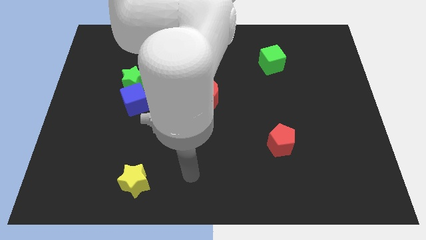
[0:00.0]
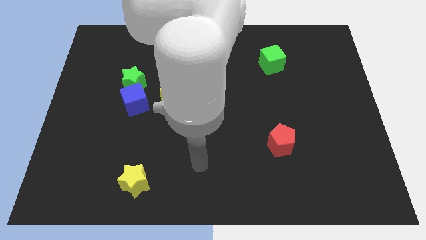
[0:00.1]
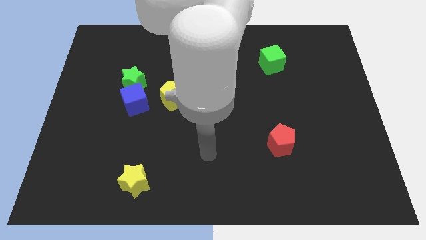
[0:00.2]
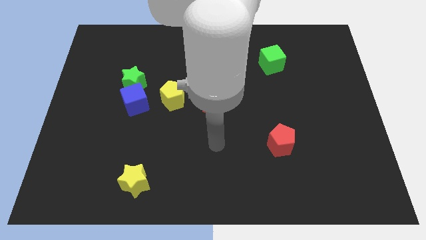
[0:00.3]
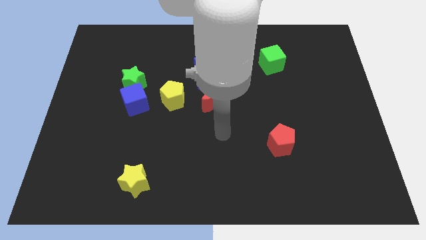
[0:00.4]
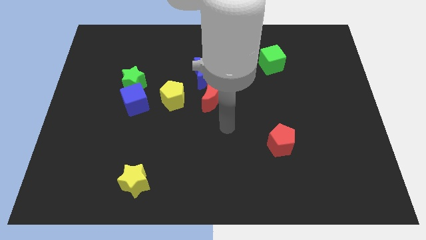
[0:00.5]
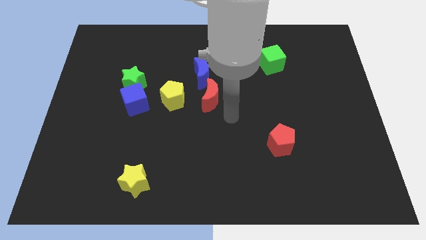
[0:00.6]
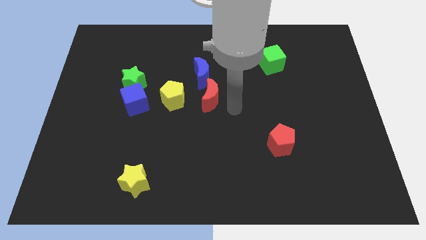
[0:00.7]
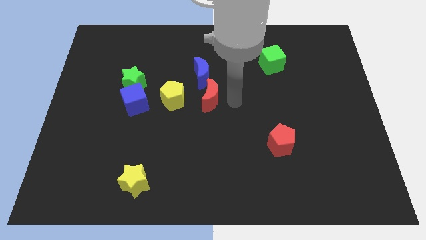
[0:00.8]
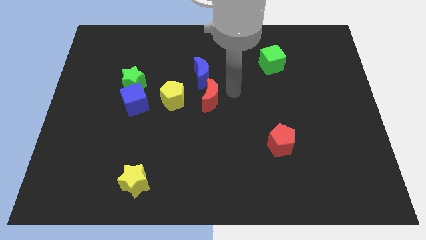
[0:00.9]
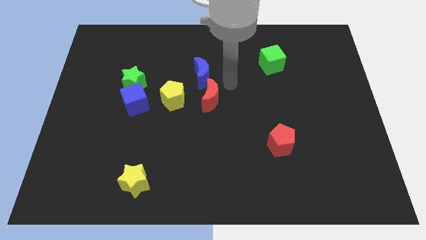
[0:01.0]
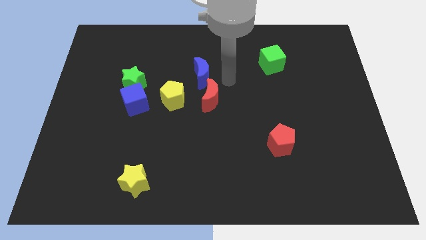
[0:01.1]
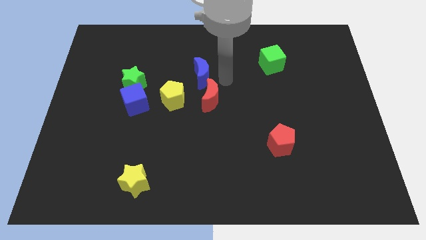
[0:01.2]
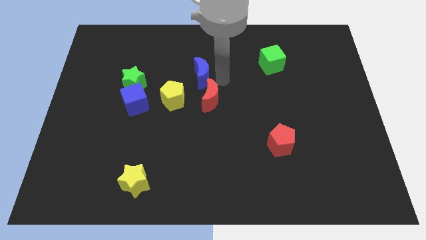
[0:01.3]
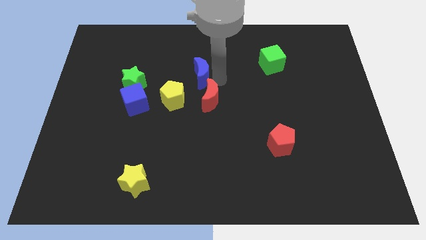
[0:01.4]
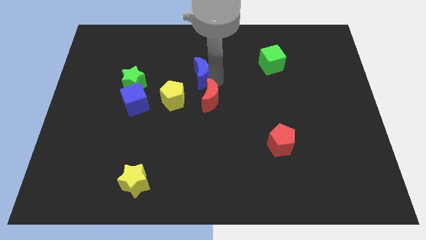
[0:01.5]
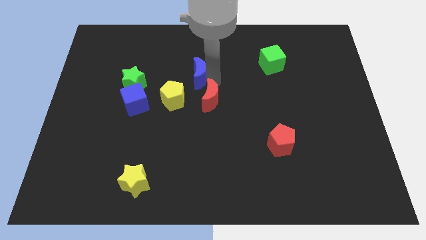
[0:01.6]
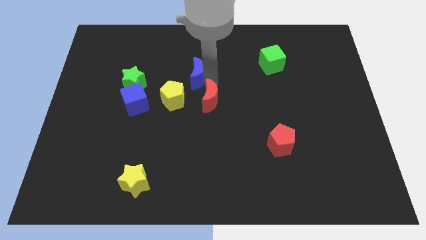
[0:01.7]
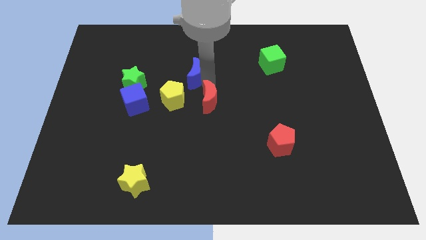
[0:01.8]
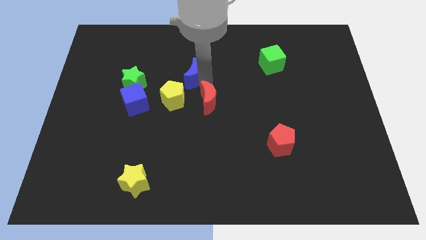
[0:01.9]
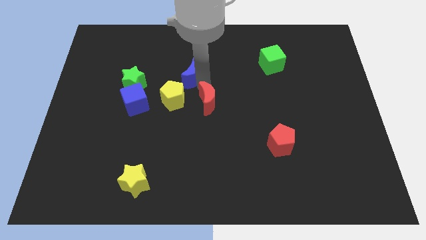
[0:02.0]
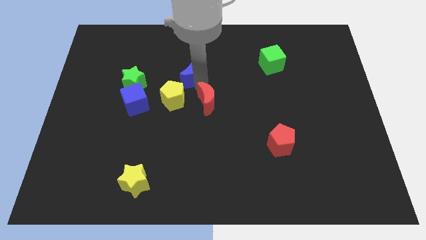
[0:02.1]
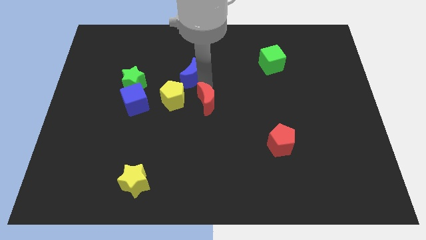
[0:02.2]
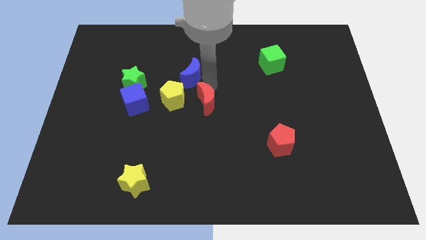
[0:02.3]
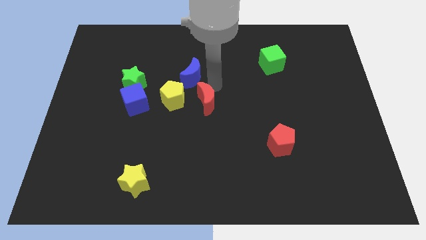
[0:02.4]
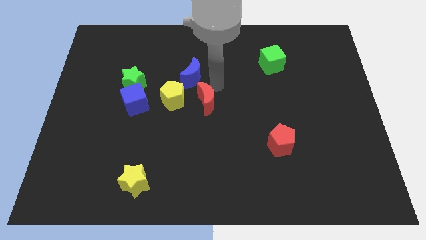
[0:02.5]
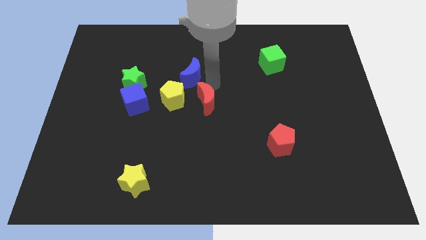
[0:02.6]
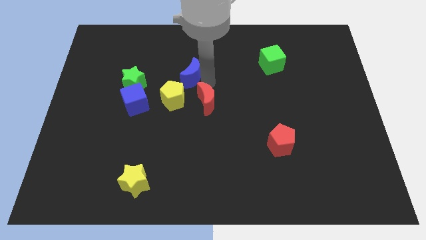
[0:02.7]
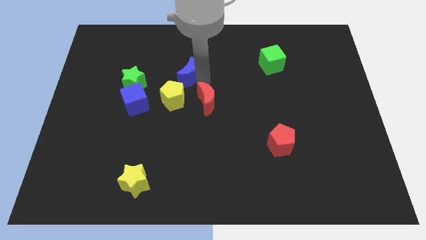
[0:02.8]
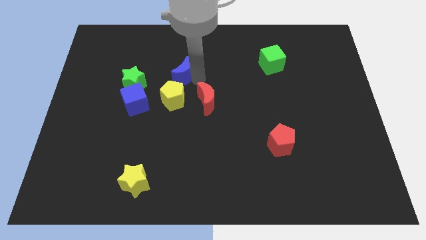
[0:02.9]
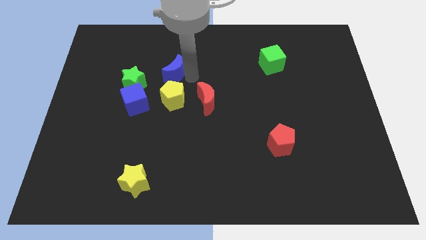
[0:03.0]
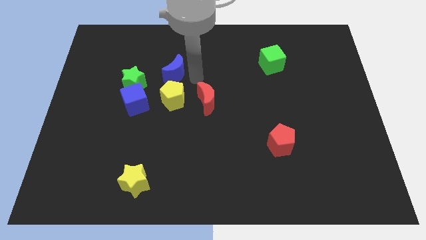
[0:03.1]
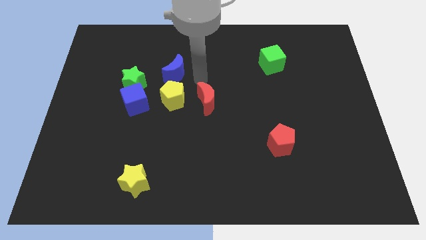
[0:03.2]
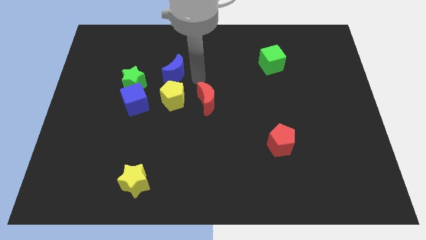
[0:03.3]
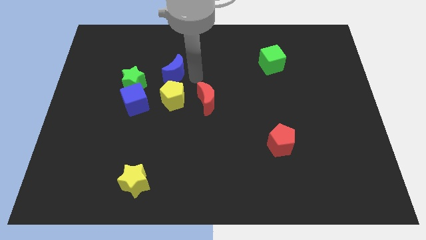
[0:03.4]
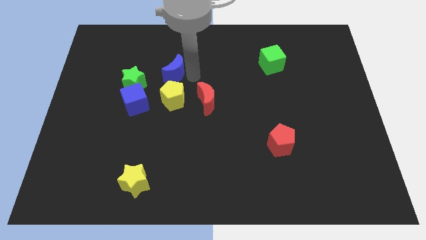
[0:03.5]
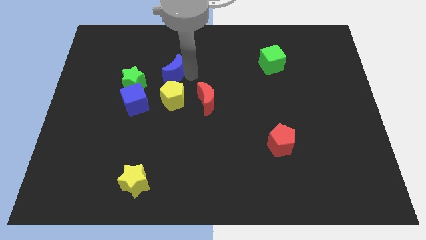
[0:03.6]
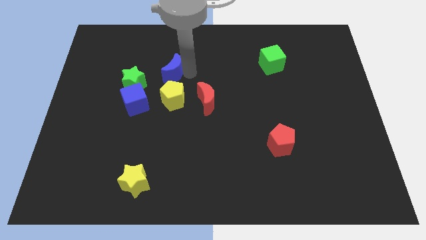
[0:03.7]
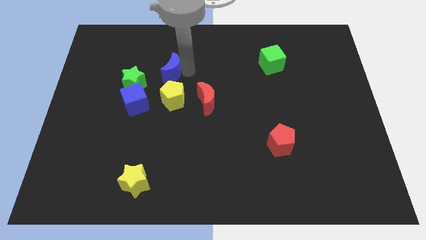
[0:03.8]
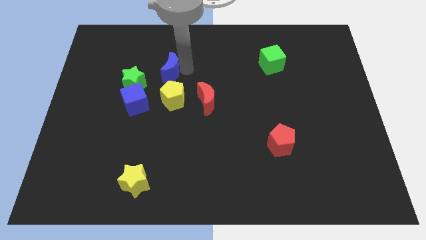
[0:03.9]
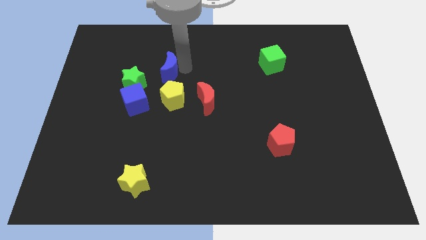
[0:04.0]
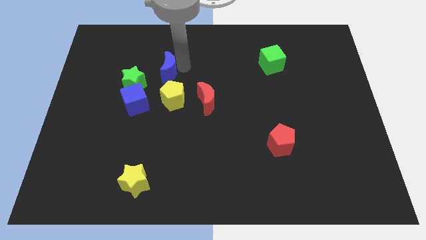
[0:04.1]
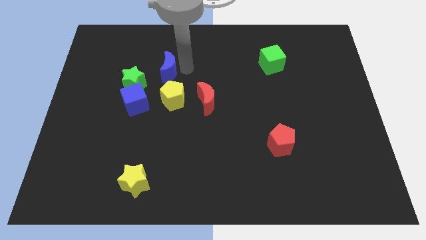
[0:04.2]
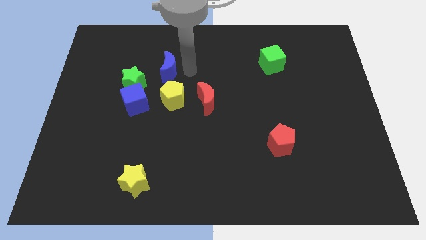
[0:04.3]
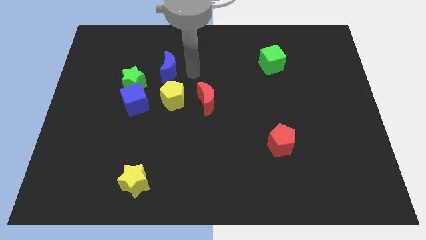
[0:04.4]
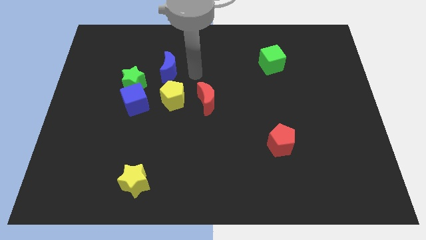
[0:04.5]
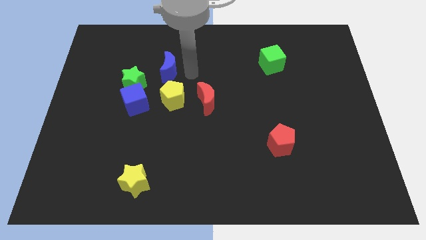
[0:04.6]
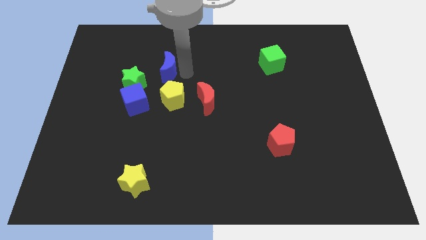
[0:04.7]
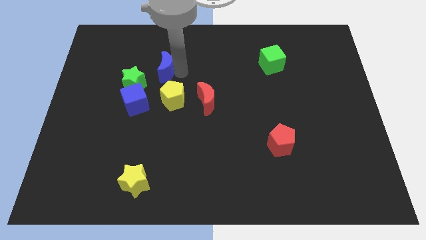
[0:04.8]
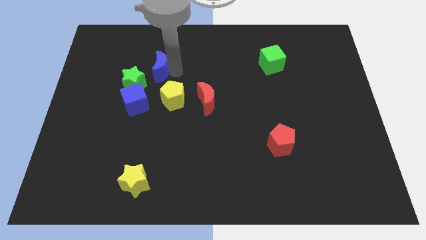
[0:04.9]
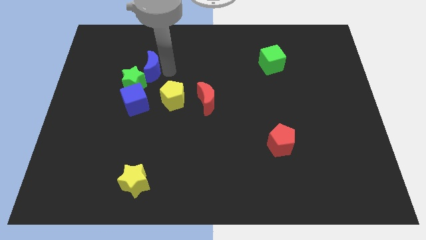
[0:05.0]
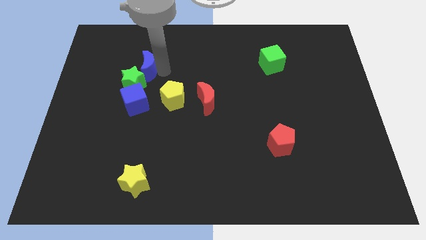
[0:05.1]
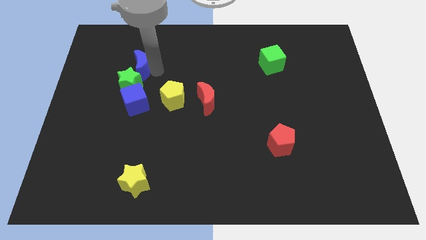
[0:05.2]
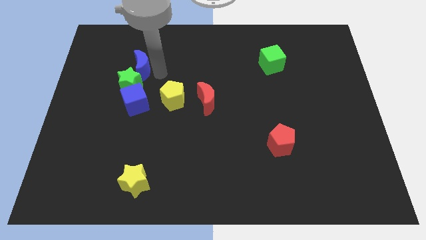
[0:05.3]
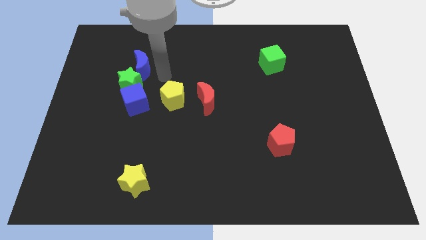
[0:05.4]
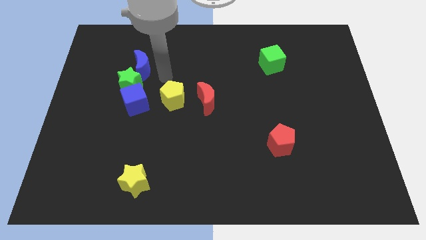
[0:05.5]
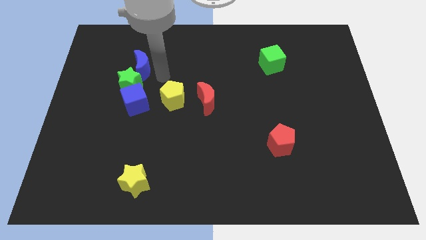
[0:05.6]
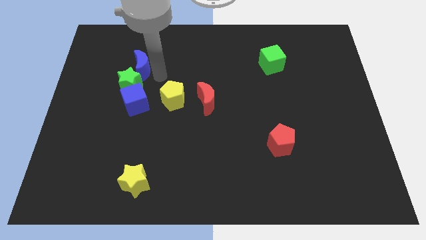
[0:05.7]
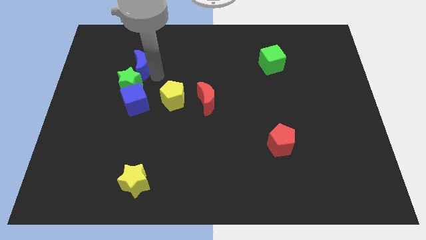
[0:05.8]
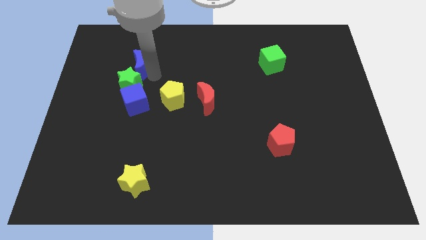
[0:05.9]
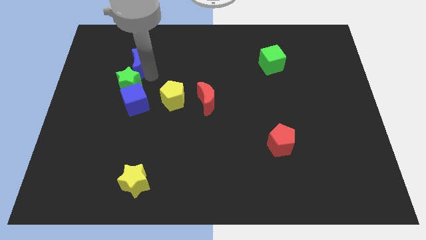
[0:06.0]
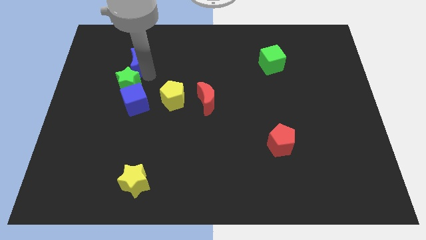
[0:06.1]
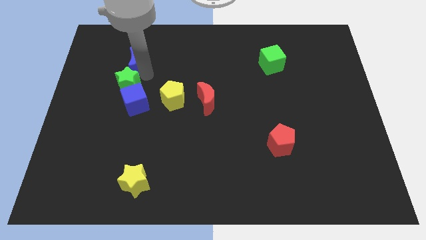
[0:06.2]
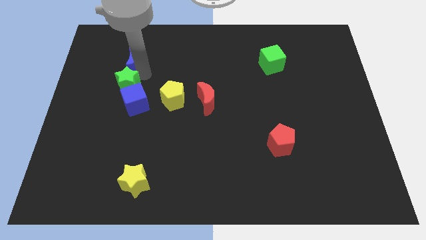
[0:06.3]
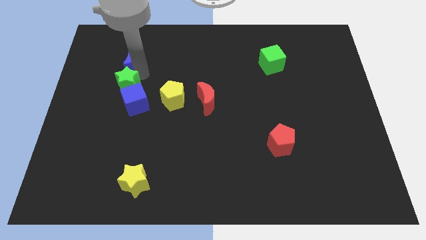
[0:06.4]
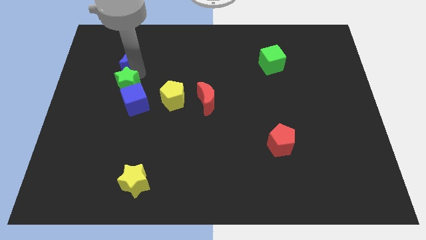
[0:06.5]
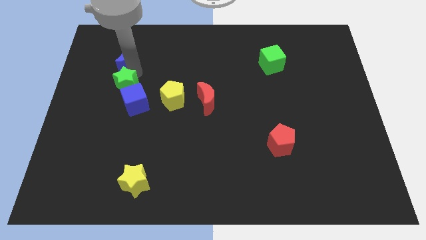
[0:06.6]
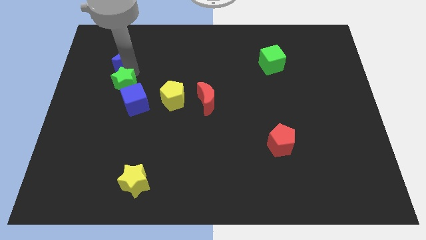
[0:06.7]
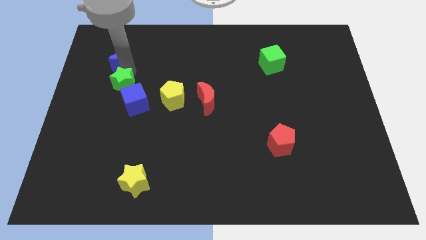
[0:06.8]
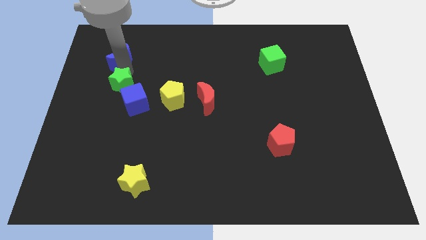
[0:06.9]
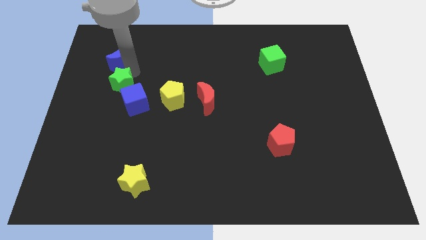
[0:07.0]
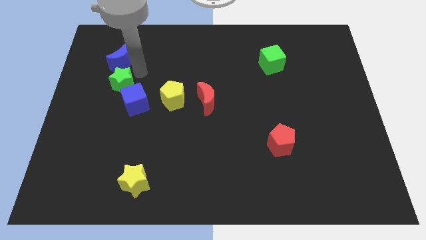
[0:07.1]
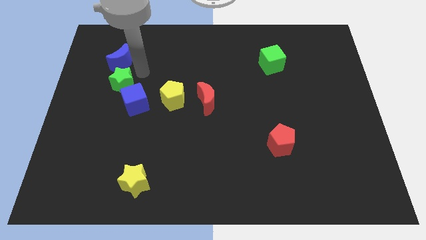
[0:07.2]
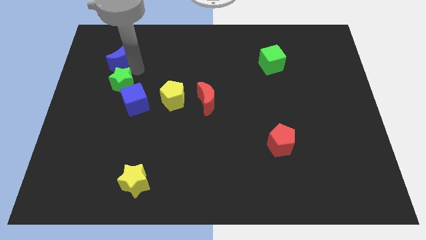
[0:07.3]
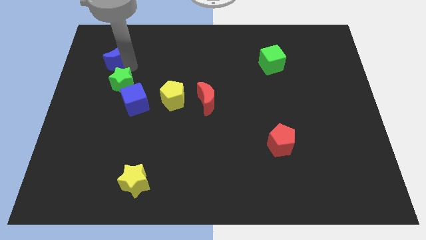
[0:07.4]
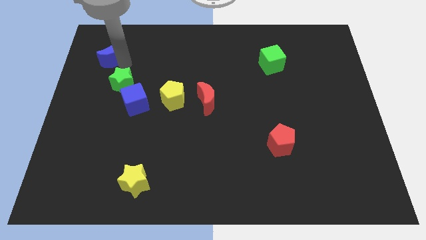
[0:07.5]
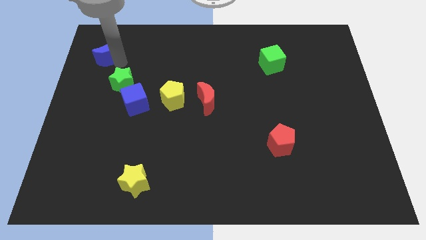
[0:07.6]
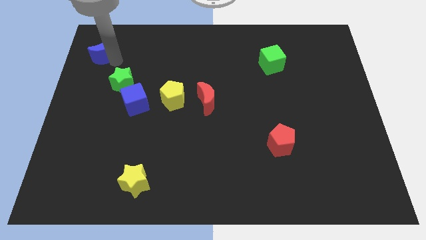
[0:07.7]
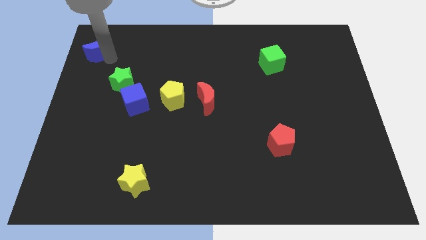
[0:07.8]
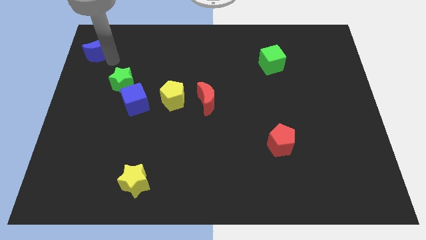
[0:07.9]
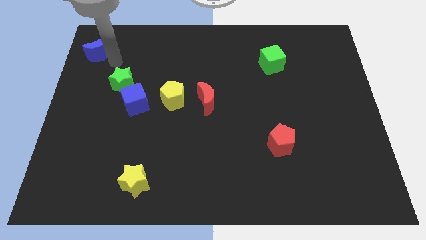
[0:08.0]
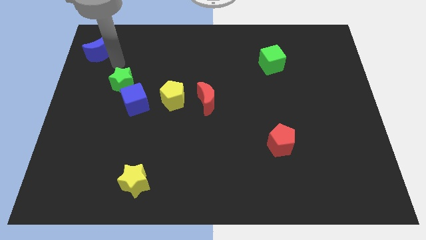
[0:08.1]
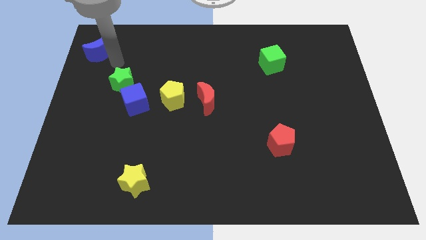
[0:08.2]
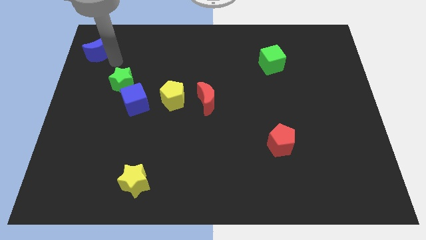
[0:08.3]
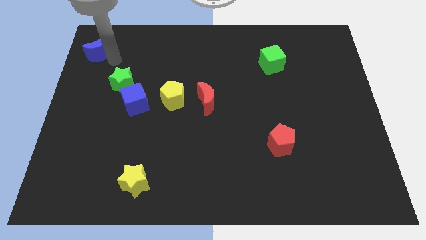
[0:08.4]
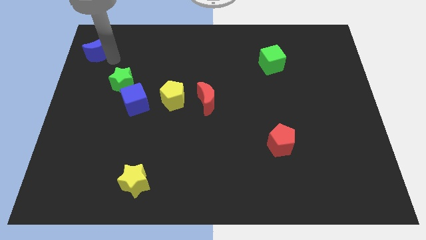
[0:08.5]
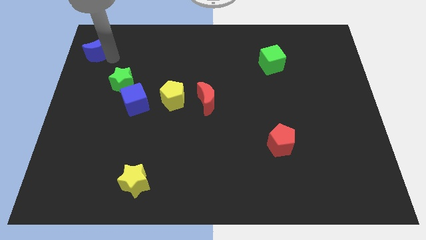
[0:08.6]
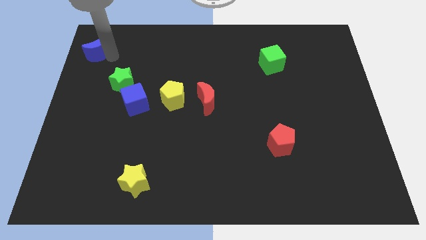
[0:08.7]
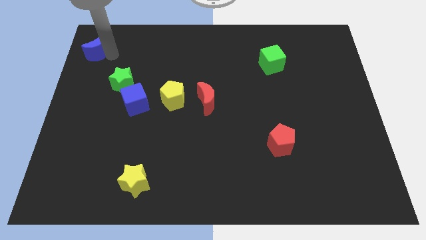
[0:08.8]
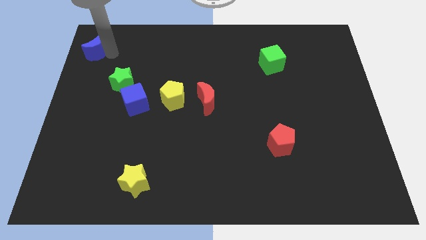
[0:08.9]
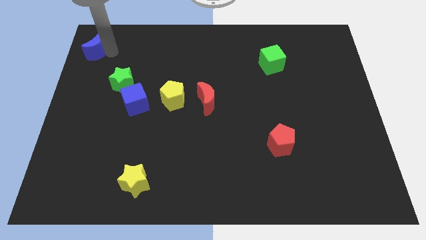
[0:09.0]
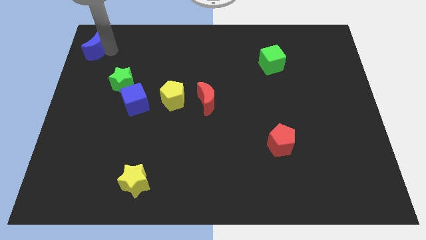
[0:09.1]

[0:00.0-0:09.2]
move the blue moon to the top left corner
